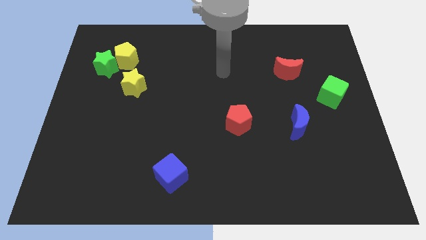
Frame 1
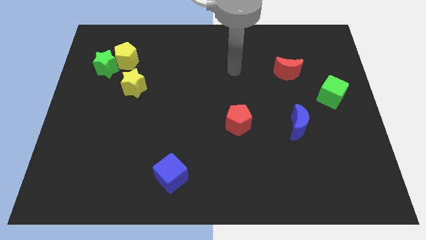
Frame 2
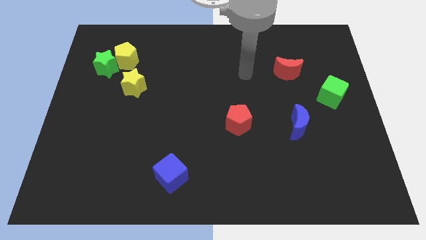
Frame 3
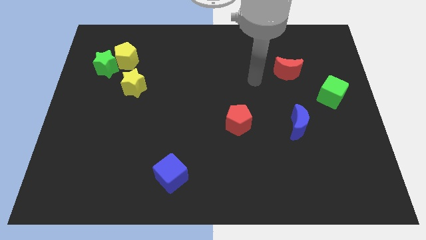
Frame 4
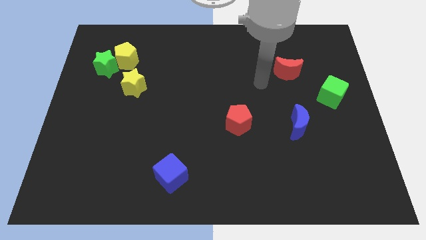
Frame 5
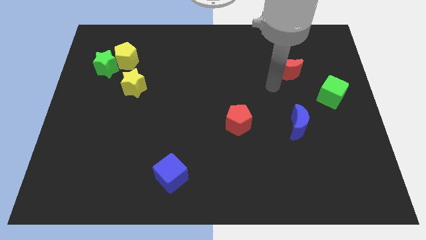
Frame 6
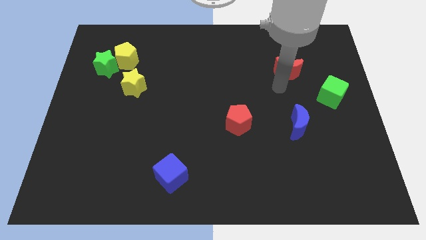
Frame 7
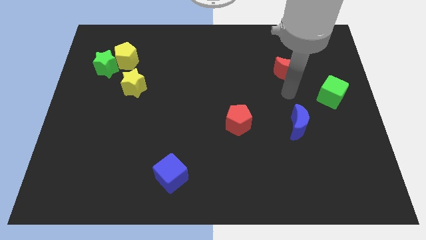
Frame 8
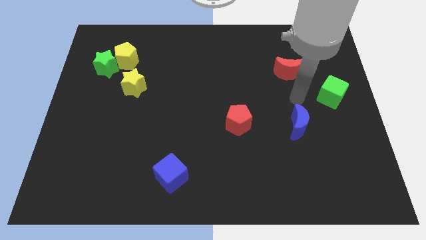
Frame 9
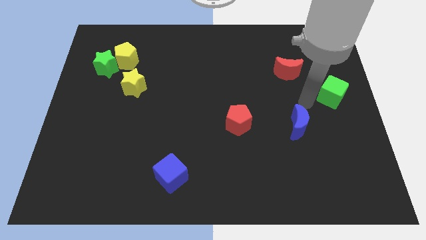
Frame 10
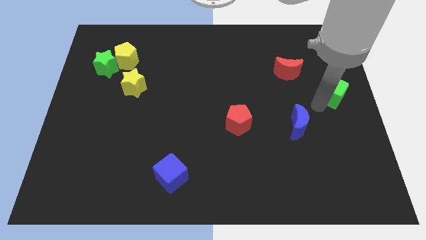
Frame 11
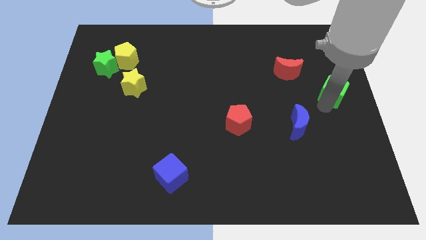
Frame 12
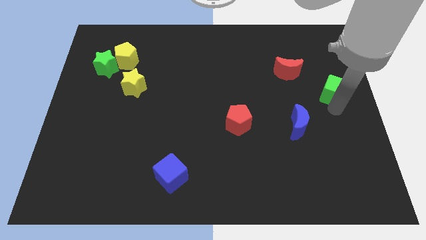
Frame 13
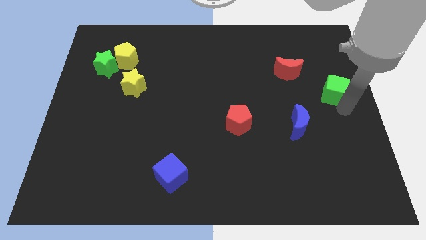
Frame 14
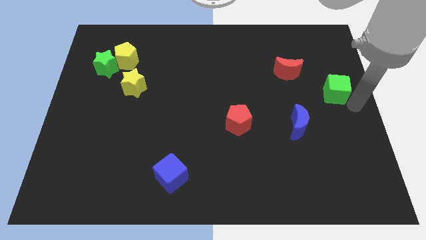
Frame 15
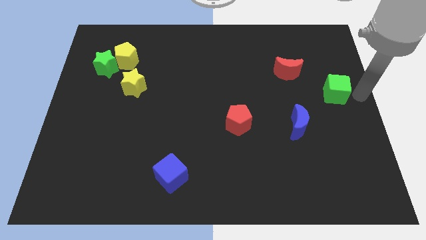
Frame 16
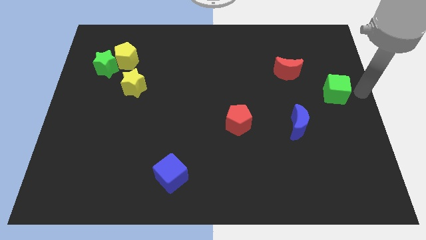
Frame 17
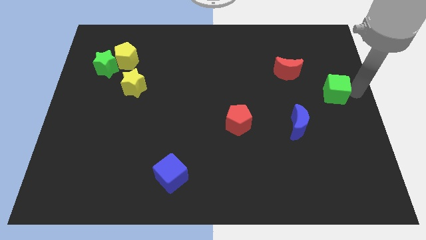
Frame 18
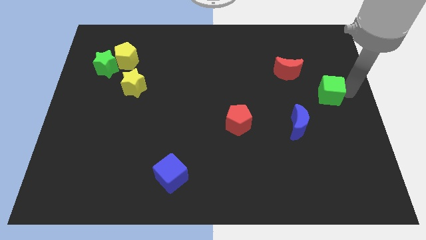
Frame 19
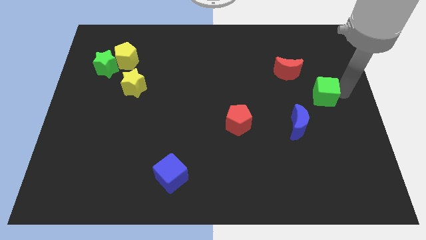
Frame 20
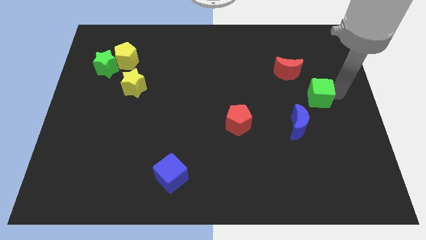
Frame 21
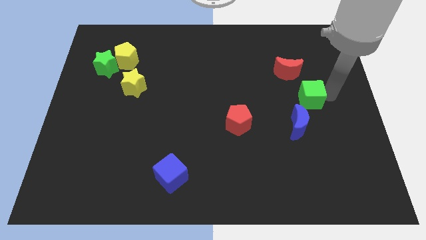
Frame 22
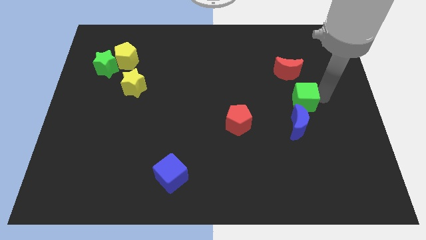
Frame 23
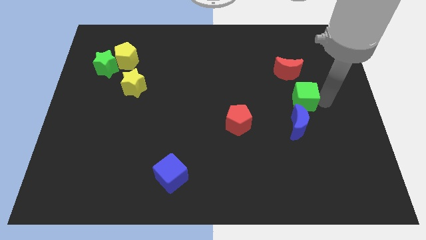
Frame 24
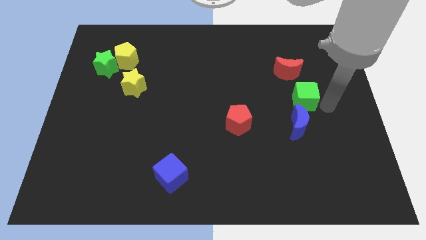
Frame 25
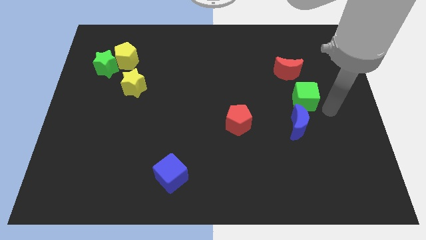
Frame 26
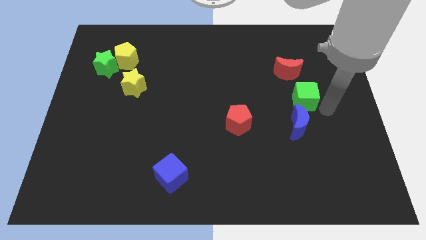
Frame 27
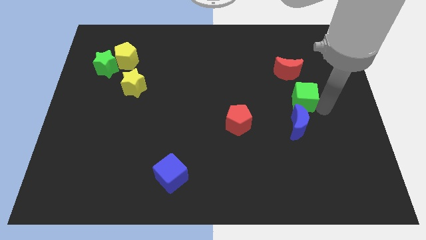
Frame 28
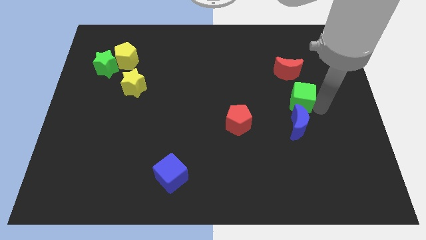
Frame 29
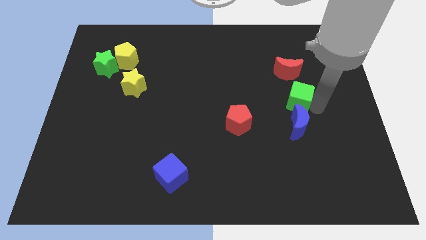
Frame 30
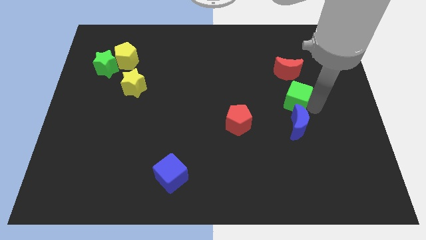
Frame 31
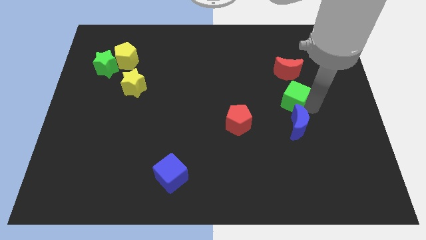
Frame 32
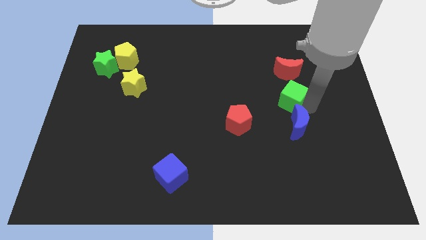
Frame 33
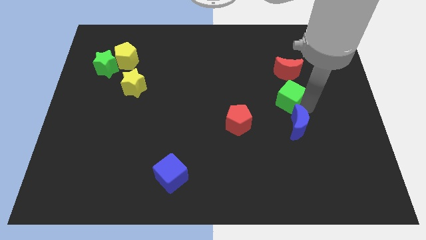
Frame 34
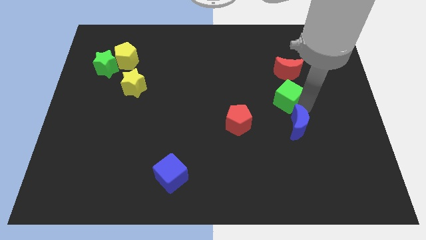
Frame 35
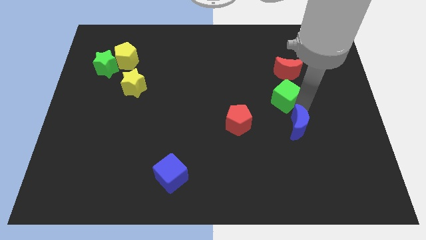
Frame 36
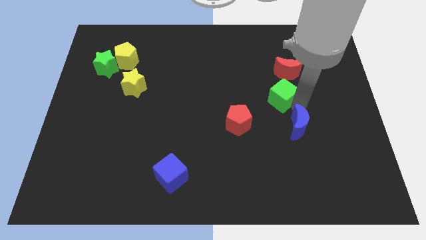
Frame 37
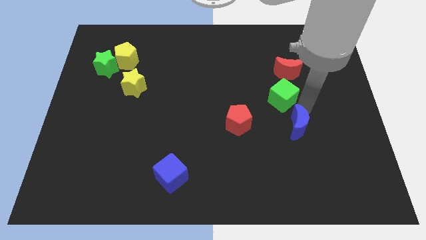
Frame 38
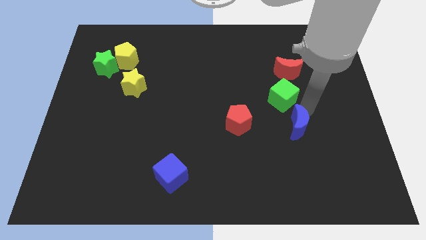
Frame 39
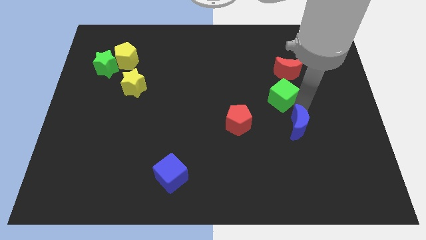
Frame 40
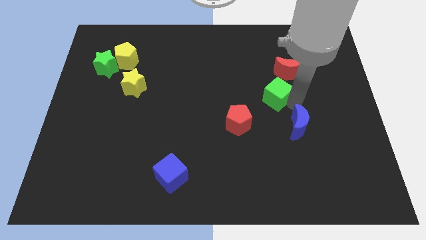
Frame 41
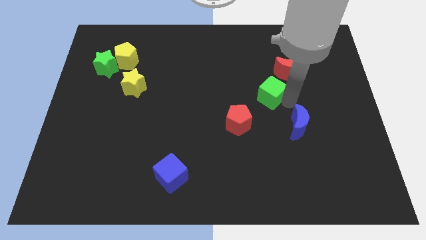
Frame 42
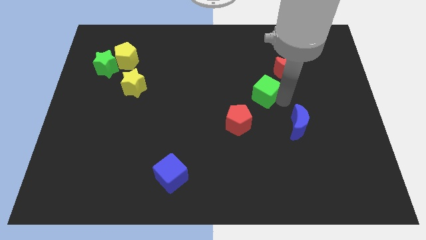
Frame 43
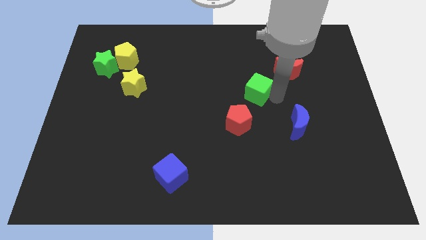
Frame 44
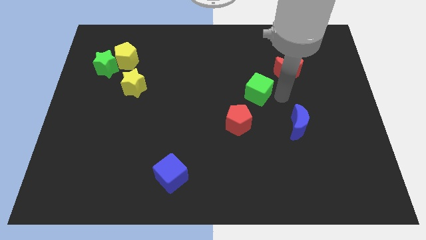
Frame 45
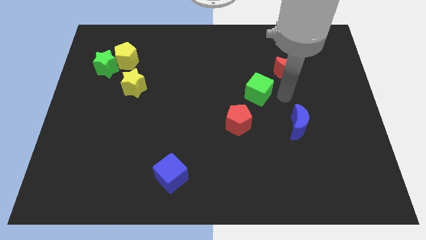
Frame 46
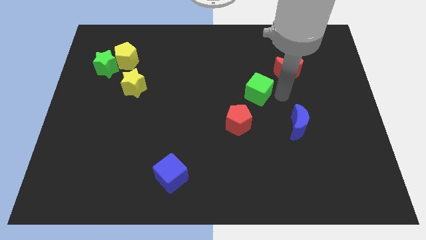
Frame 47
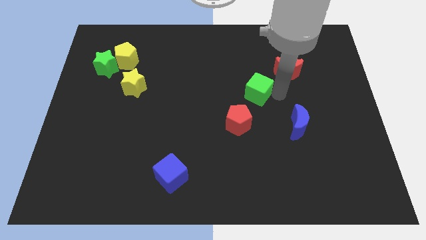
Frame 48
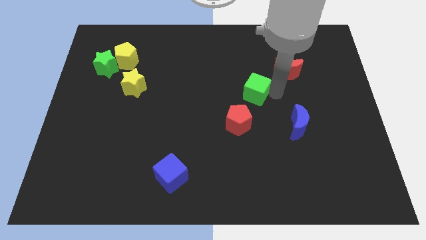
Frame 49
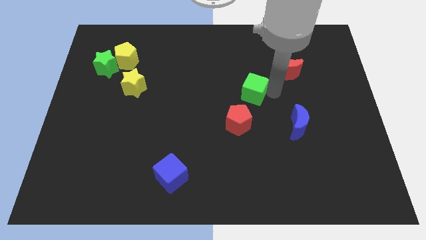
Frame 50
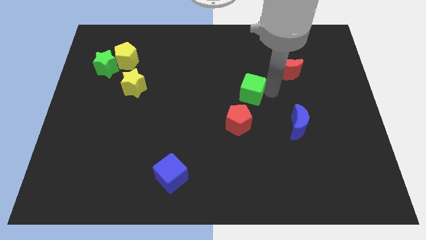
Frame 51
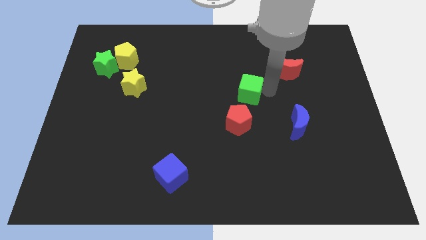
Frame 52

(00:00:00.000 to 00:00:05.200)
slide the green cube left

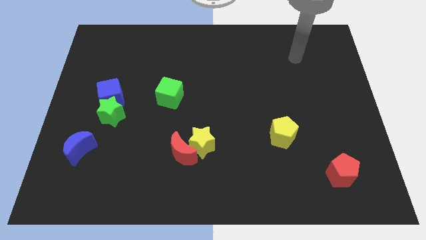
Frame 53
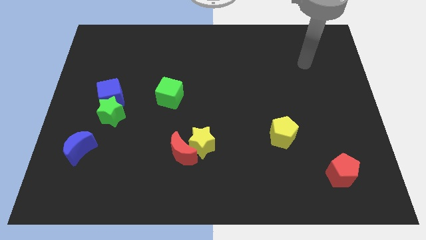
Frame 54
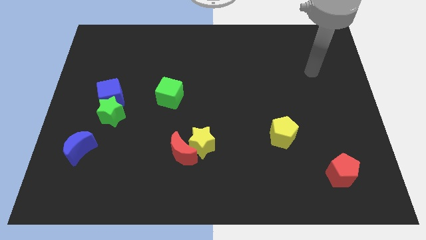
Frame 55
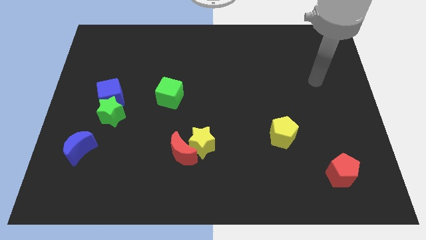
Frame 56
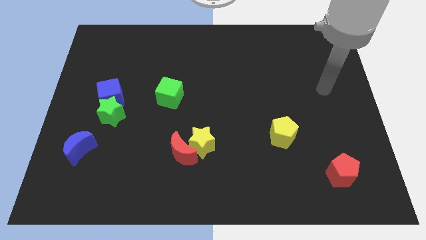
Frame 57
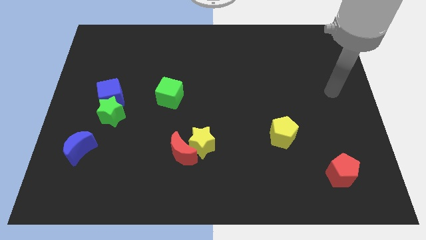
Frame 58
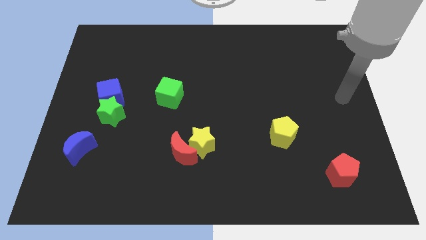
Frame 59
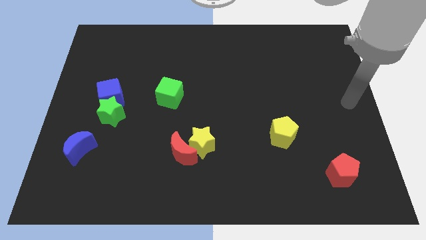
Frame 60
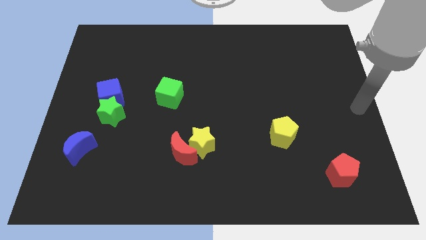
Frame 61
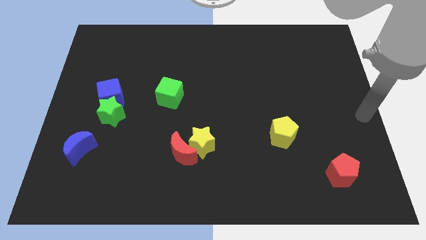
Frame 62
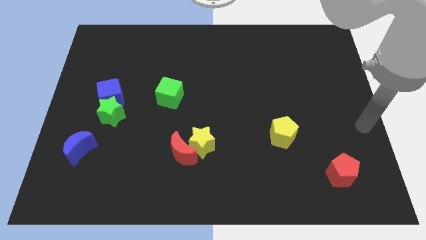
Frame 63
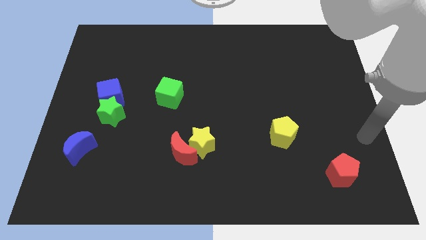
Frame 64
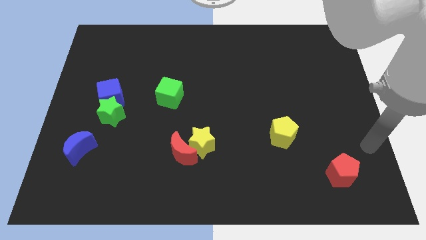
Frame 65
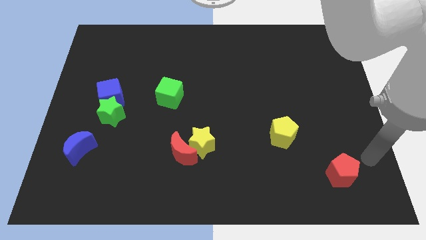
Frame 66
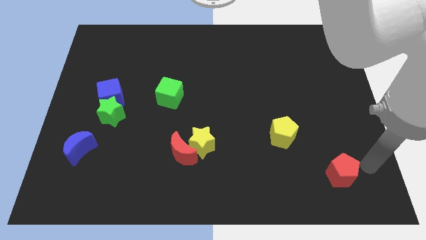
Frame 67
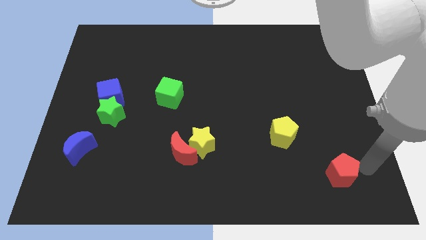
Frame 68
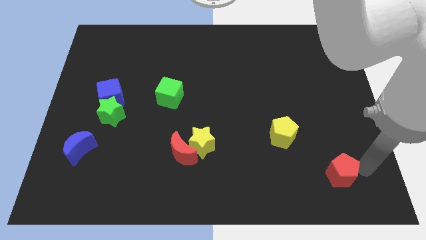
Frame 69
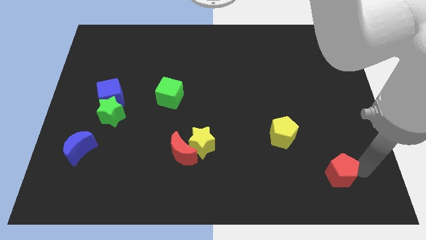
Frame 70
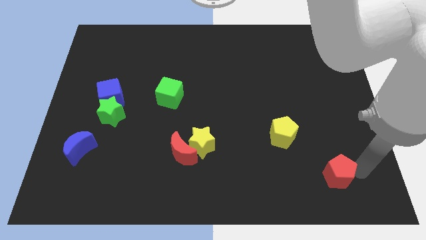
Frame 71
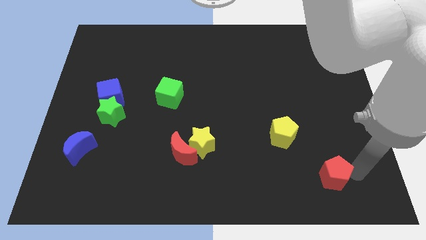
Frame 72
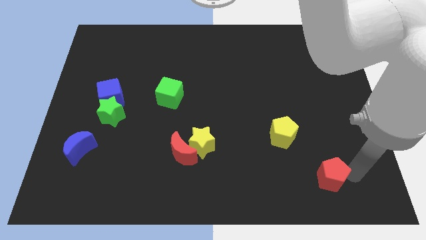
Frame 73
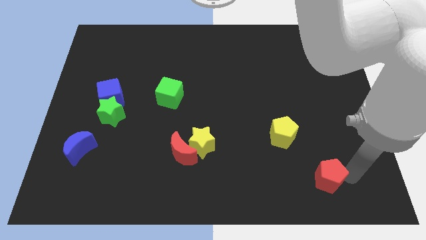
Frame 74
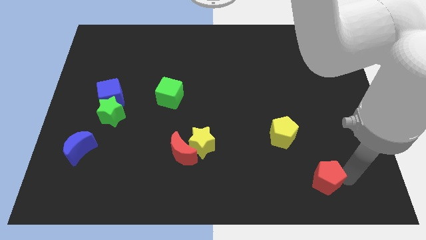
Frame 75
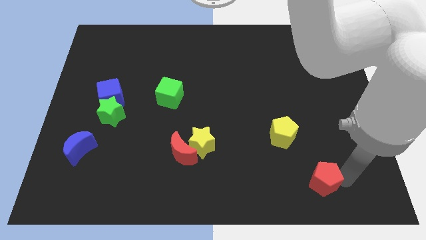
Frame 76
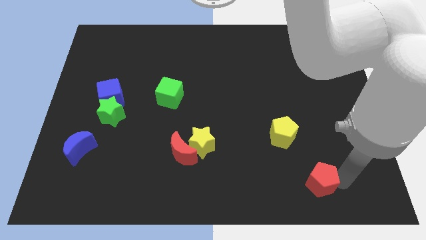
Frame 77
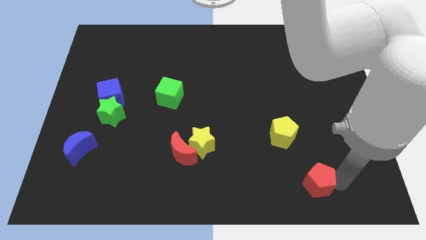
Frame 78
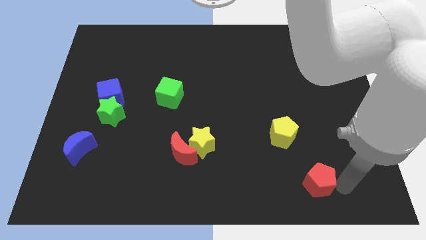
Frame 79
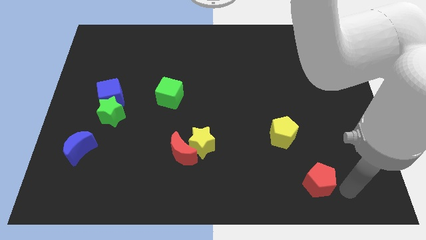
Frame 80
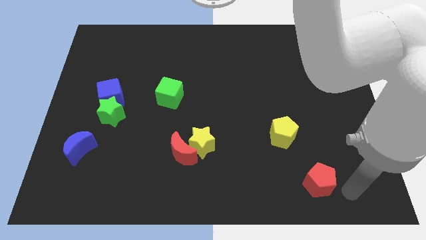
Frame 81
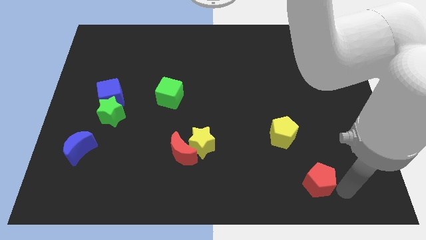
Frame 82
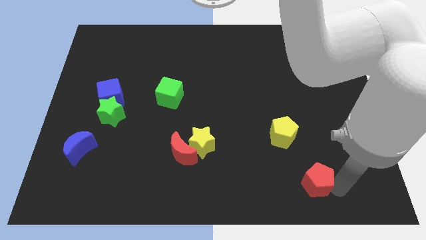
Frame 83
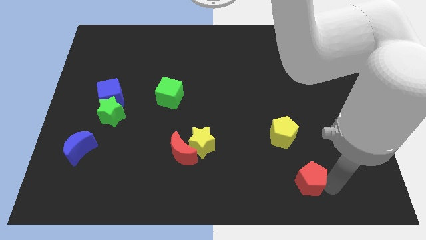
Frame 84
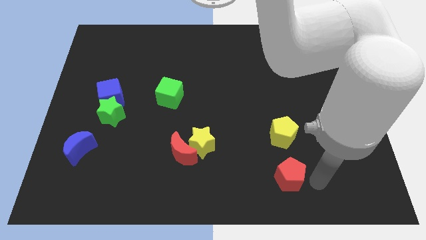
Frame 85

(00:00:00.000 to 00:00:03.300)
slightly move the red pentagon to the left
